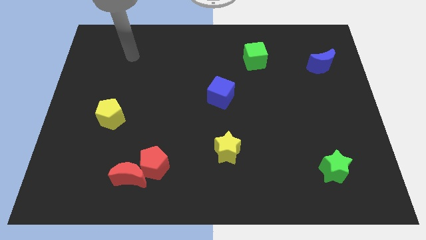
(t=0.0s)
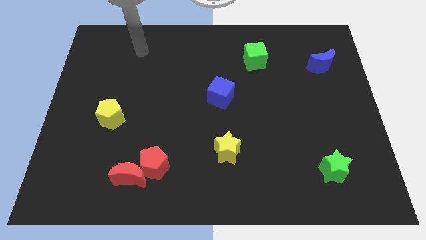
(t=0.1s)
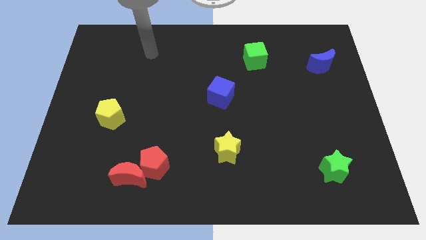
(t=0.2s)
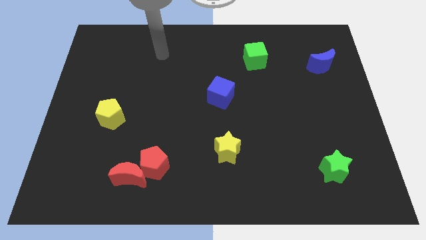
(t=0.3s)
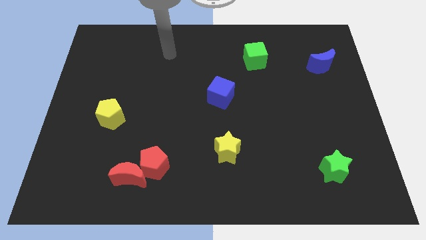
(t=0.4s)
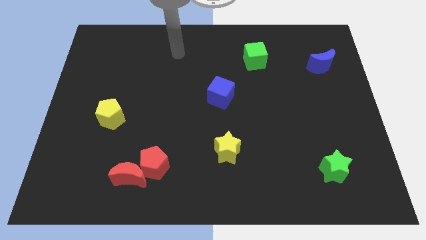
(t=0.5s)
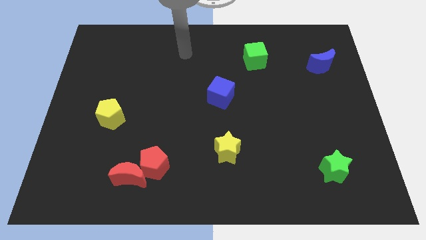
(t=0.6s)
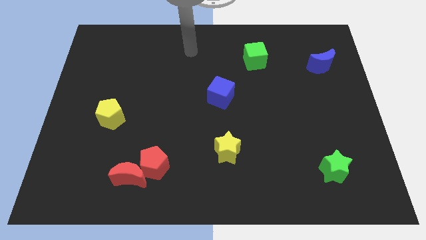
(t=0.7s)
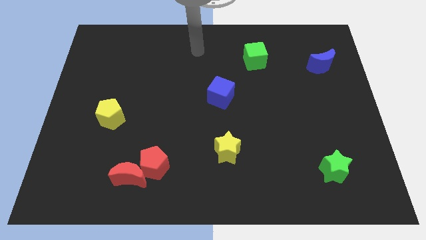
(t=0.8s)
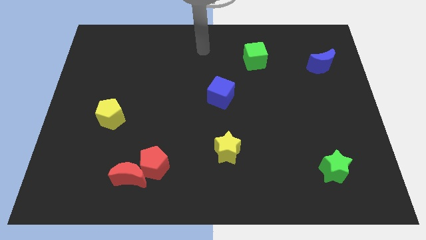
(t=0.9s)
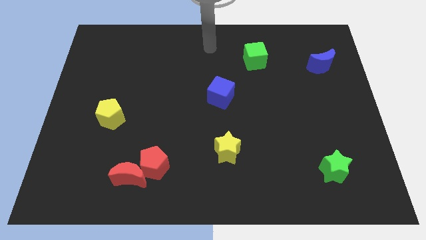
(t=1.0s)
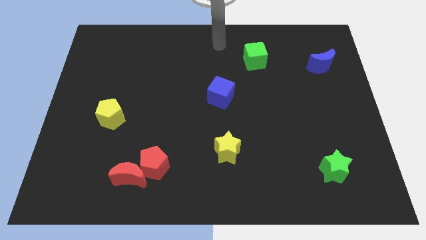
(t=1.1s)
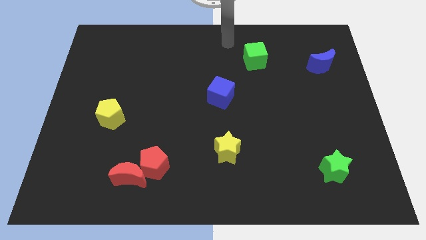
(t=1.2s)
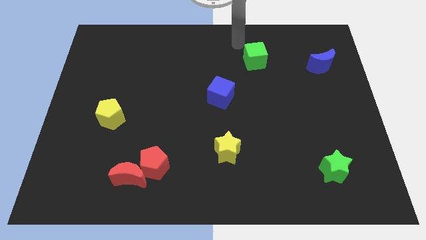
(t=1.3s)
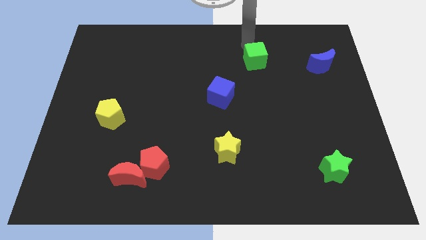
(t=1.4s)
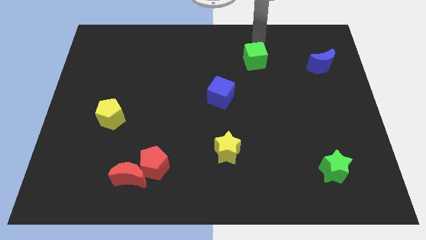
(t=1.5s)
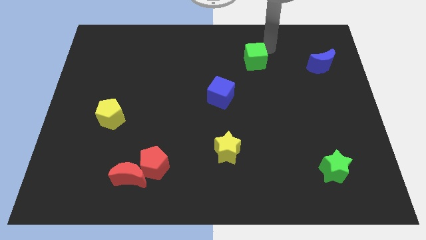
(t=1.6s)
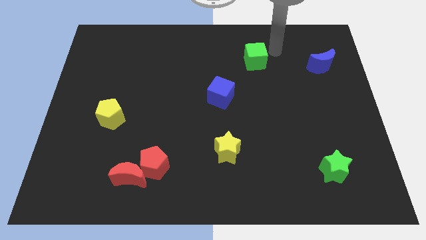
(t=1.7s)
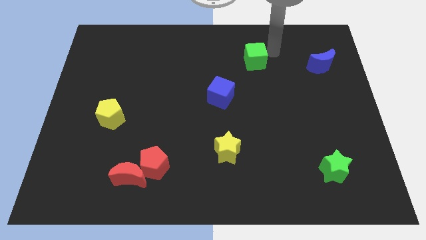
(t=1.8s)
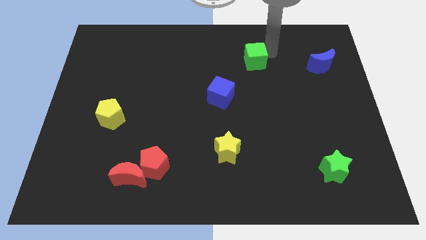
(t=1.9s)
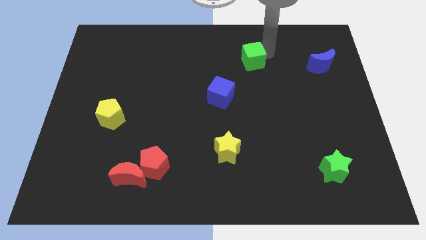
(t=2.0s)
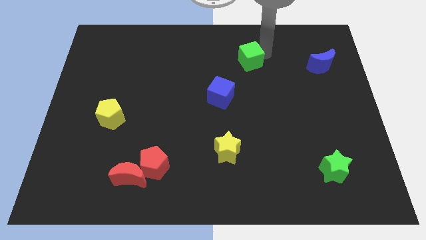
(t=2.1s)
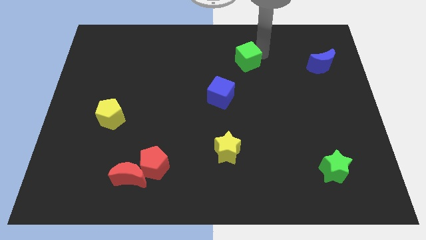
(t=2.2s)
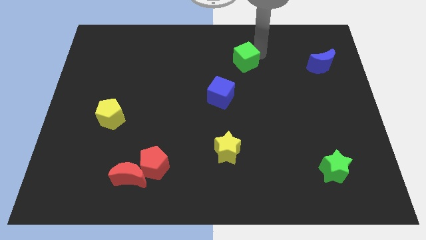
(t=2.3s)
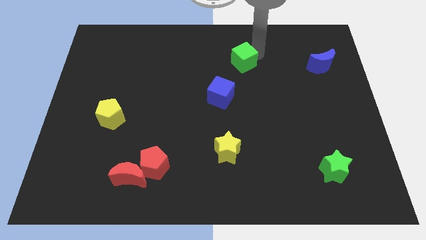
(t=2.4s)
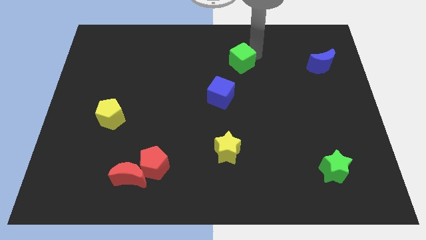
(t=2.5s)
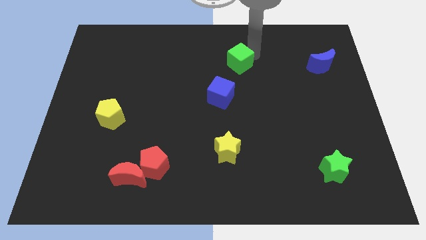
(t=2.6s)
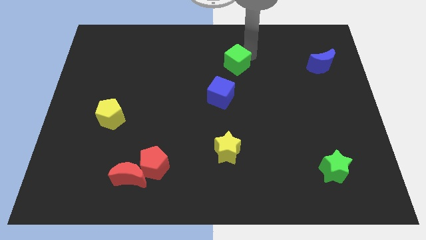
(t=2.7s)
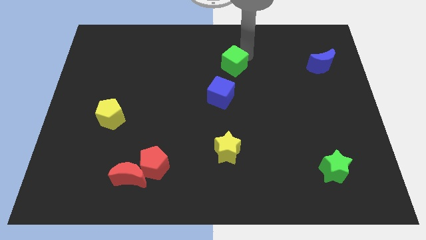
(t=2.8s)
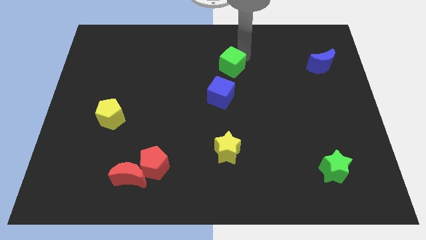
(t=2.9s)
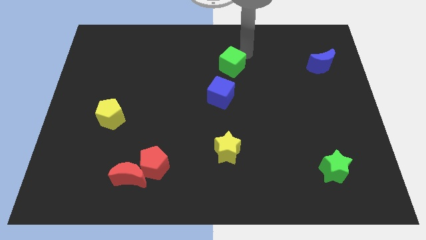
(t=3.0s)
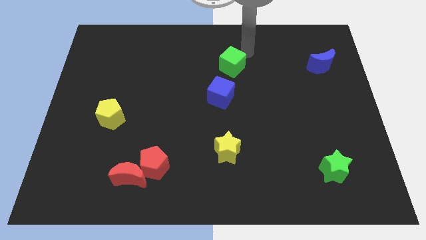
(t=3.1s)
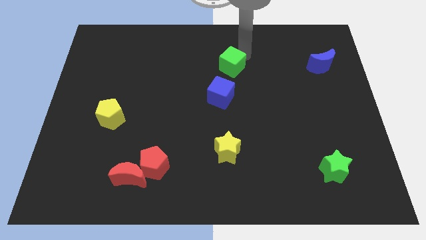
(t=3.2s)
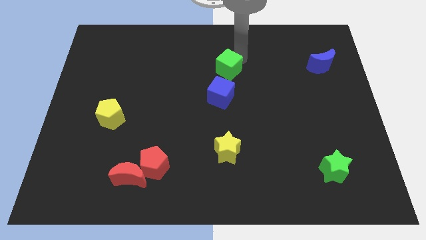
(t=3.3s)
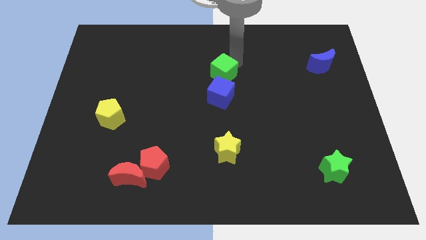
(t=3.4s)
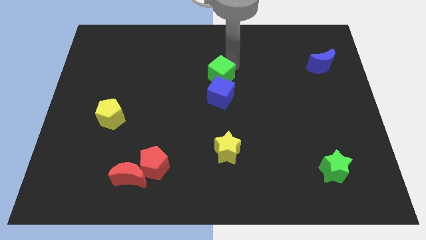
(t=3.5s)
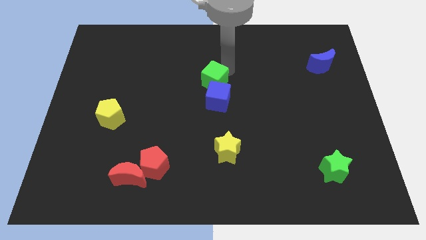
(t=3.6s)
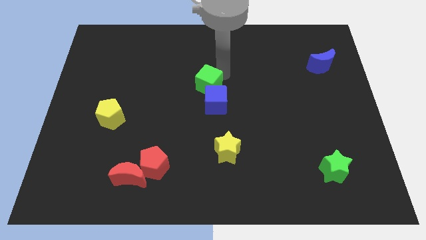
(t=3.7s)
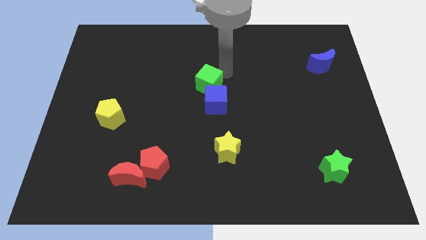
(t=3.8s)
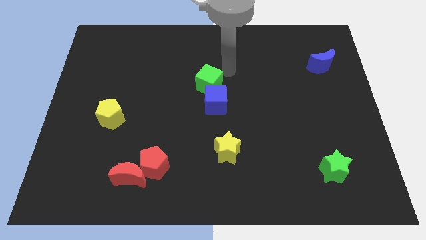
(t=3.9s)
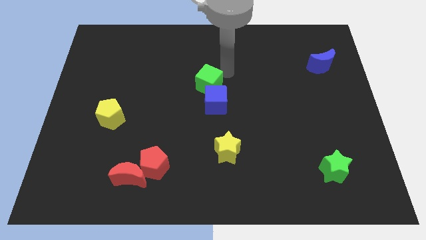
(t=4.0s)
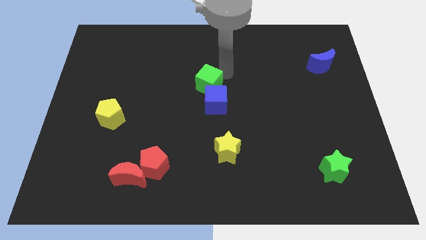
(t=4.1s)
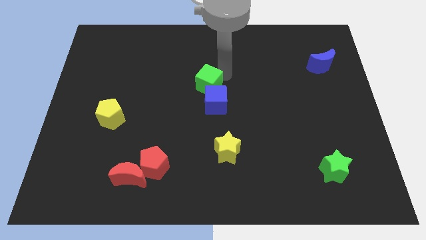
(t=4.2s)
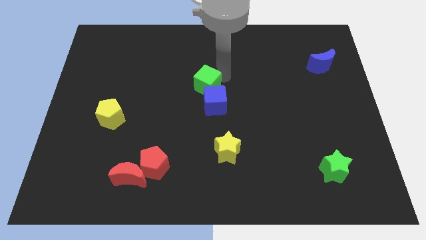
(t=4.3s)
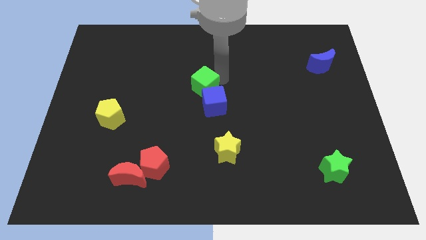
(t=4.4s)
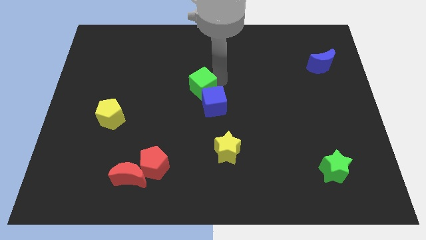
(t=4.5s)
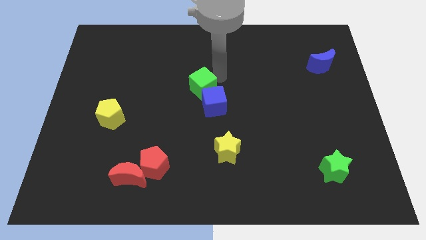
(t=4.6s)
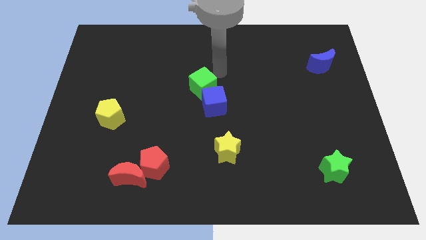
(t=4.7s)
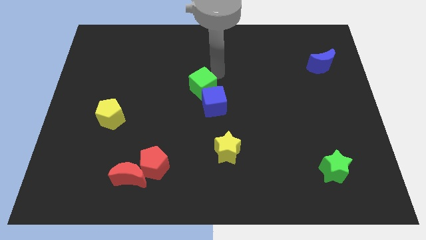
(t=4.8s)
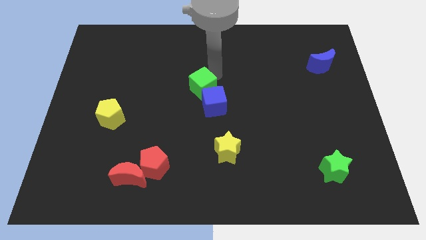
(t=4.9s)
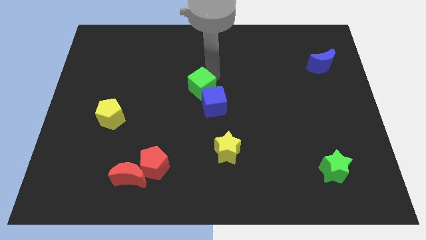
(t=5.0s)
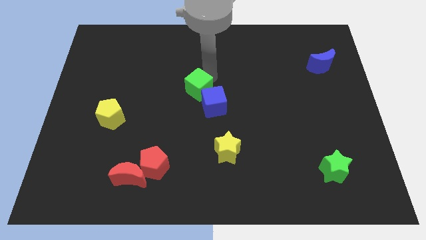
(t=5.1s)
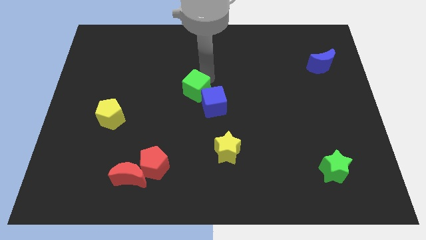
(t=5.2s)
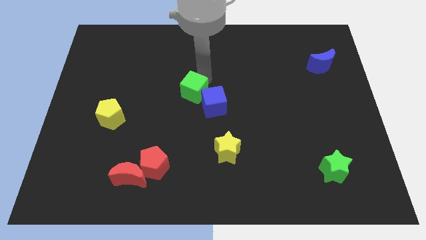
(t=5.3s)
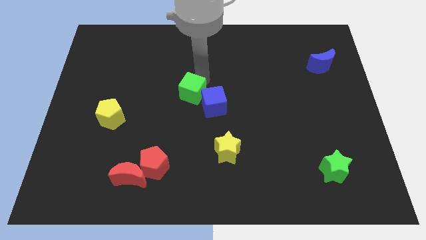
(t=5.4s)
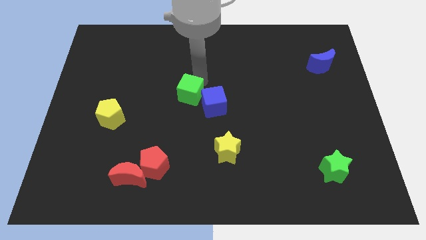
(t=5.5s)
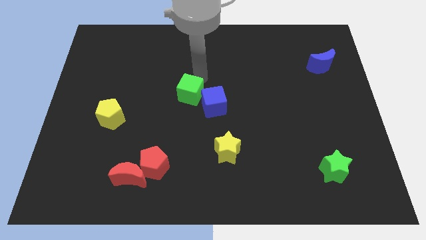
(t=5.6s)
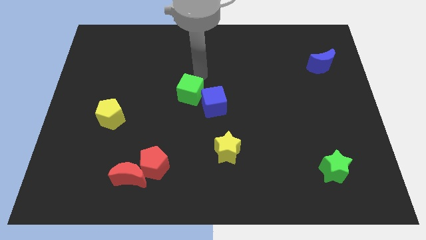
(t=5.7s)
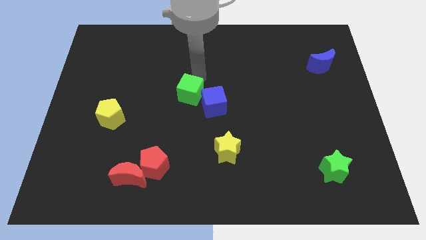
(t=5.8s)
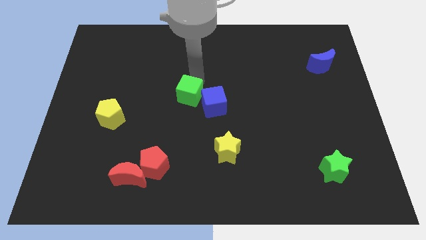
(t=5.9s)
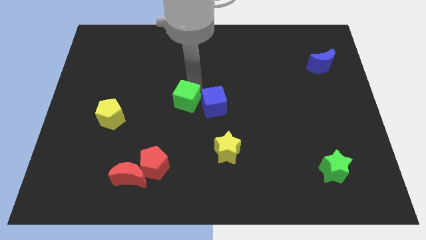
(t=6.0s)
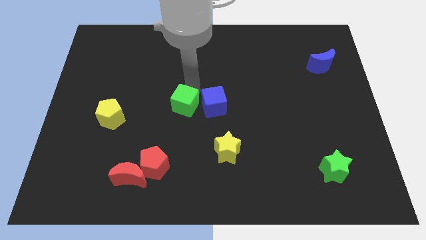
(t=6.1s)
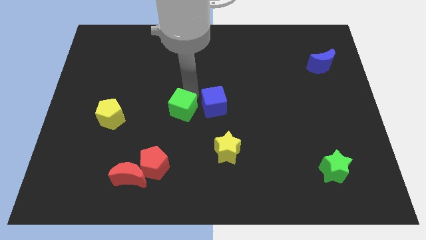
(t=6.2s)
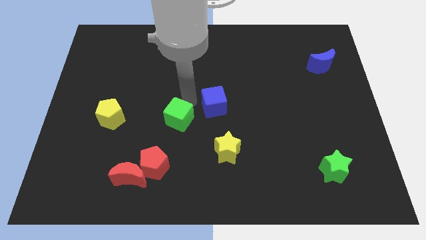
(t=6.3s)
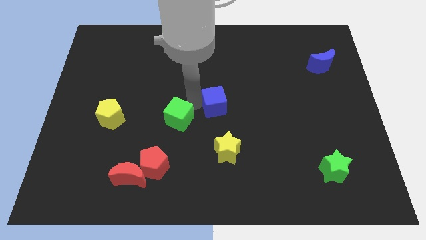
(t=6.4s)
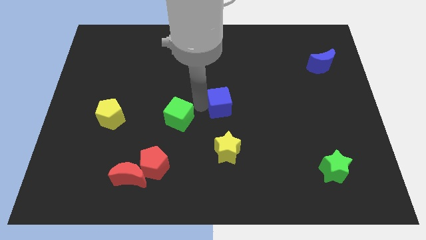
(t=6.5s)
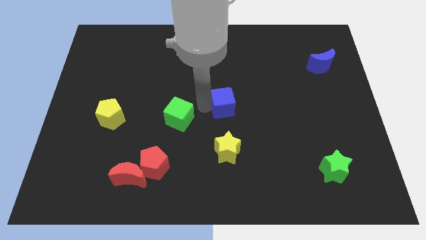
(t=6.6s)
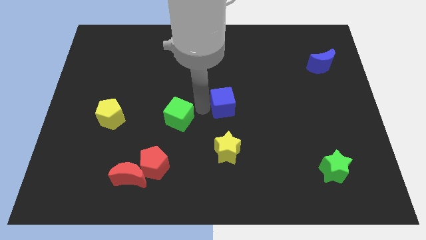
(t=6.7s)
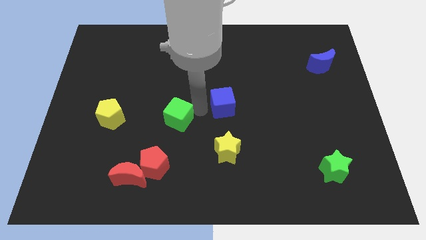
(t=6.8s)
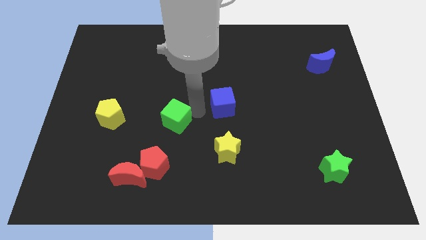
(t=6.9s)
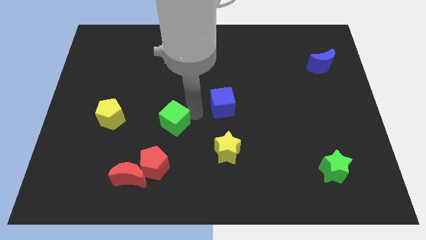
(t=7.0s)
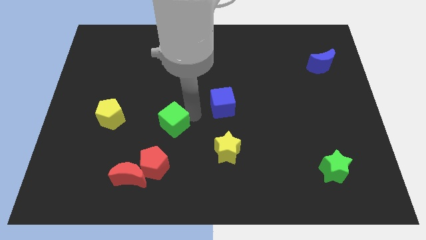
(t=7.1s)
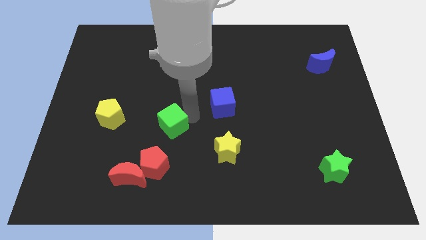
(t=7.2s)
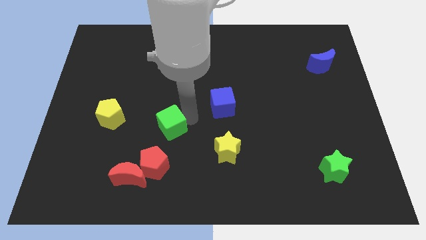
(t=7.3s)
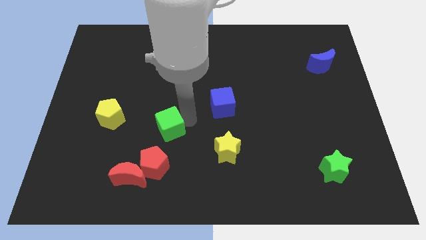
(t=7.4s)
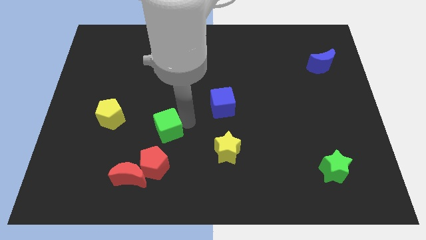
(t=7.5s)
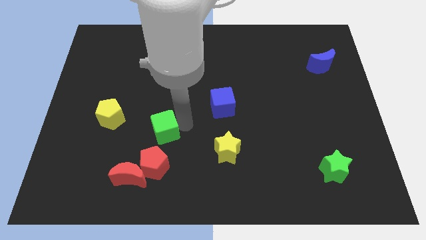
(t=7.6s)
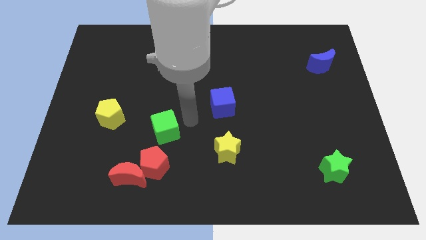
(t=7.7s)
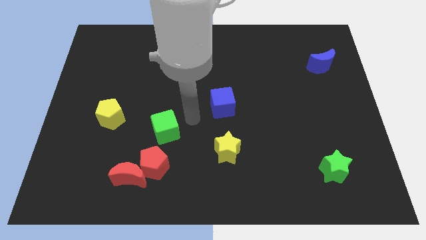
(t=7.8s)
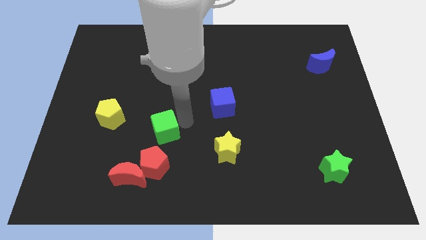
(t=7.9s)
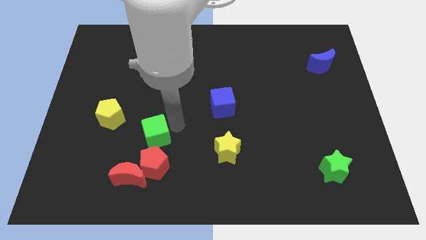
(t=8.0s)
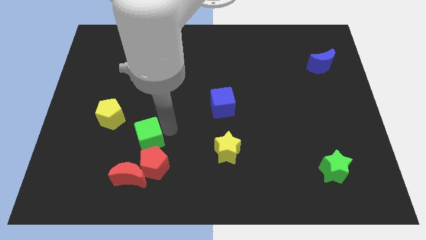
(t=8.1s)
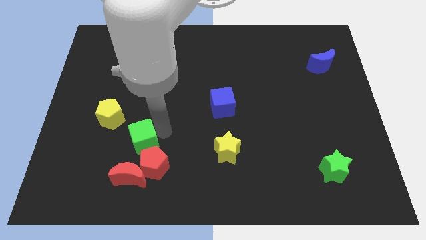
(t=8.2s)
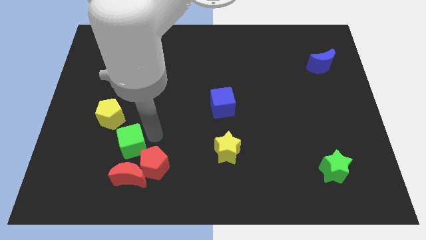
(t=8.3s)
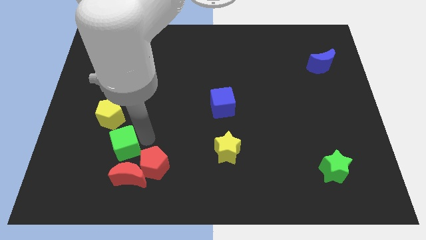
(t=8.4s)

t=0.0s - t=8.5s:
put the green cube to the bottom of the yellow pentagon
